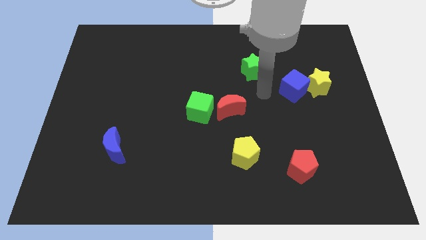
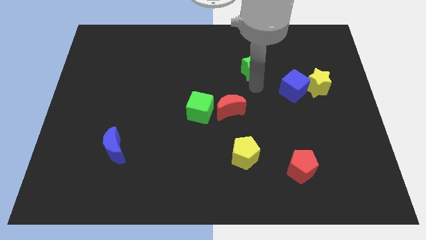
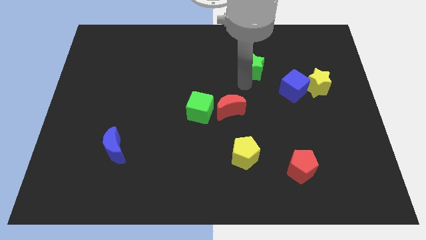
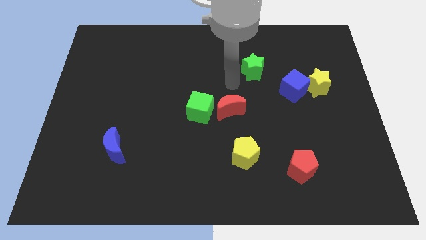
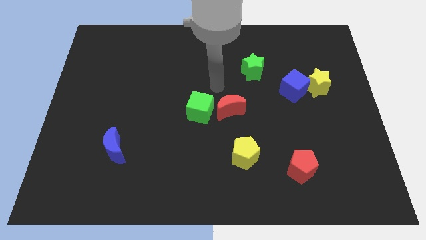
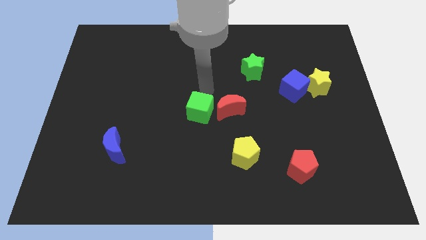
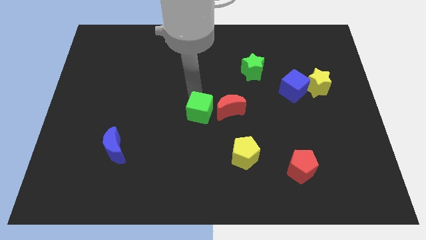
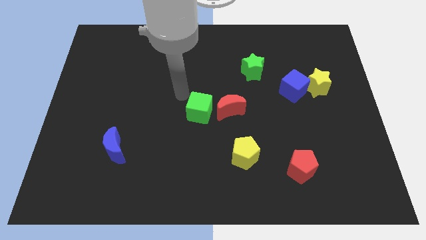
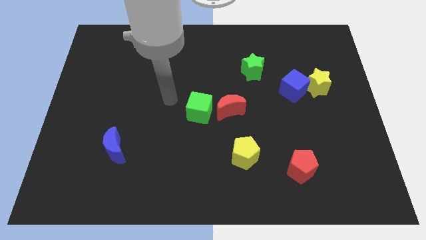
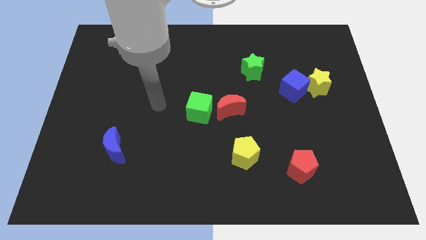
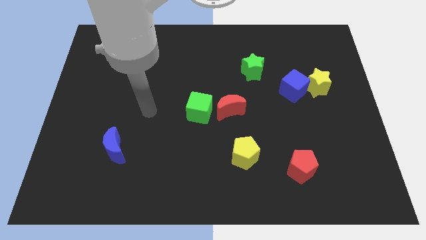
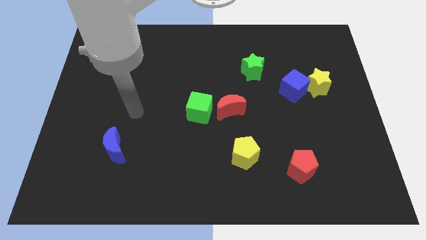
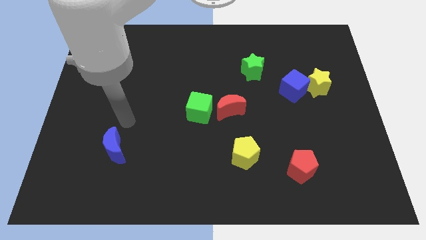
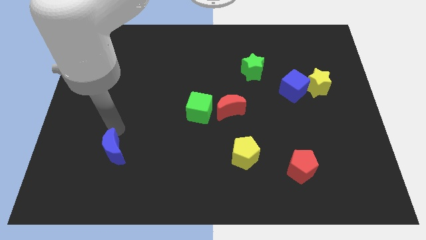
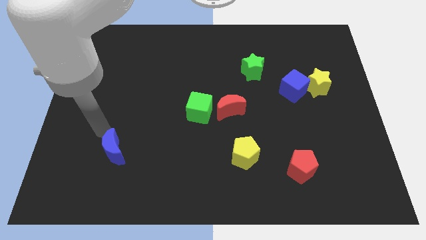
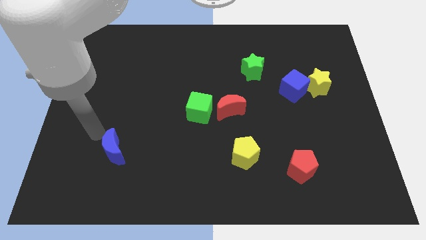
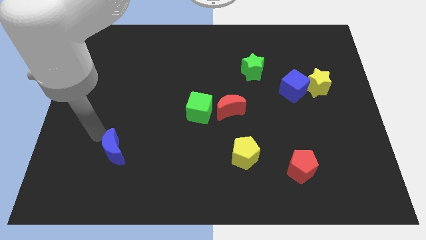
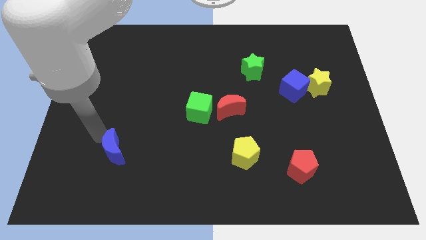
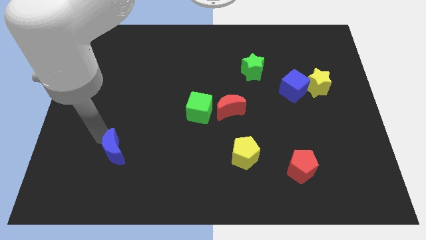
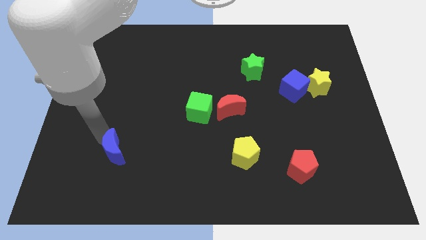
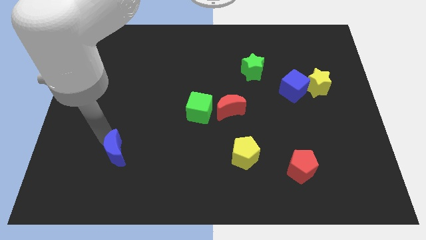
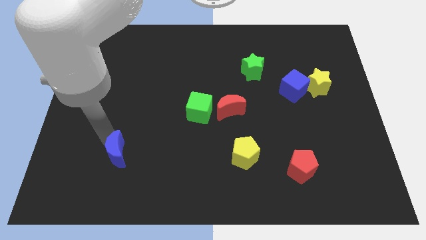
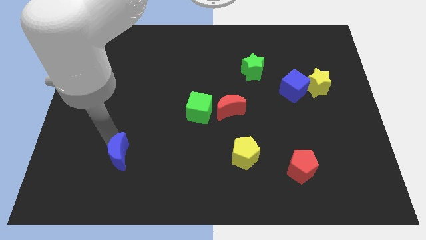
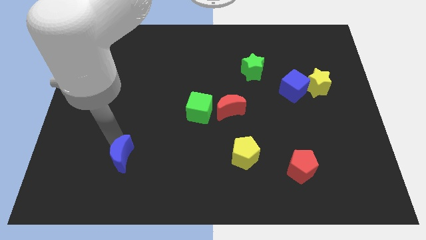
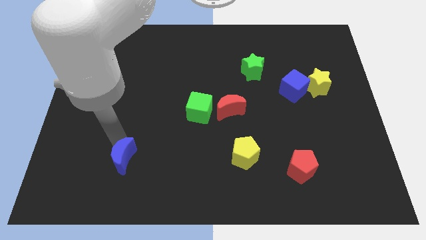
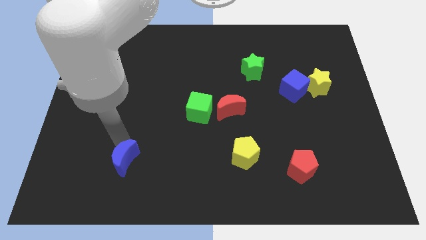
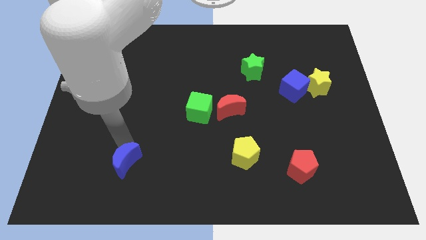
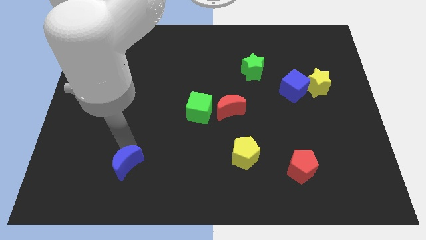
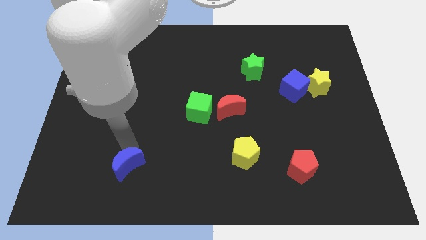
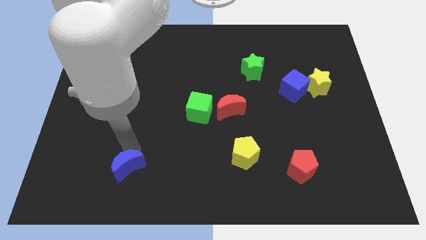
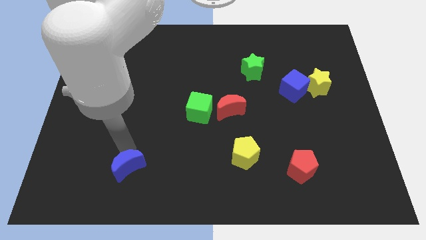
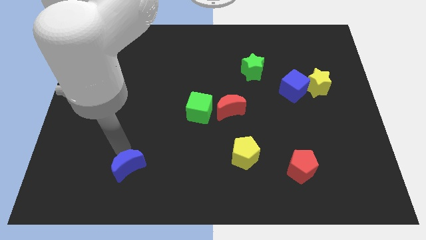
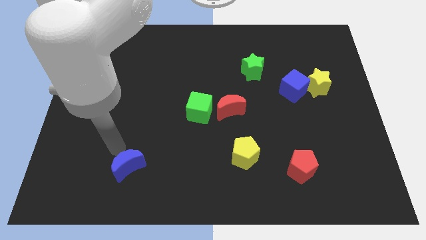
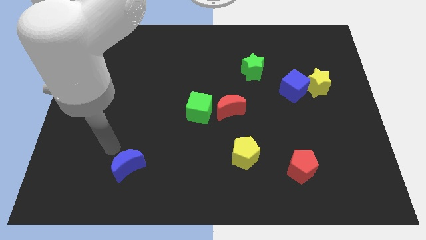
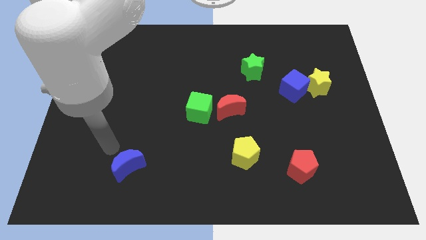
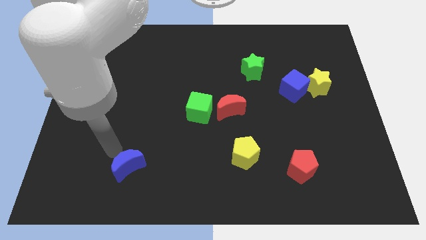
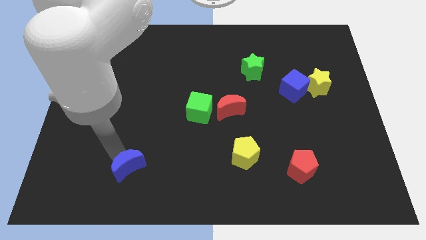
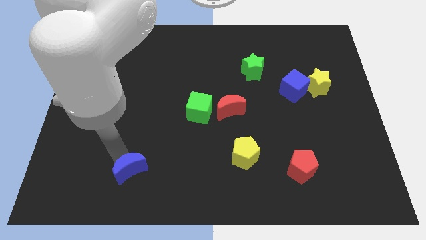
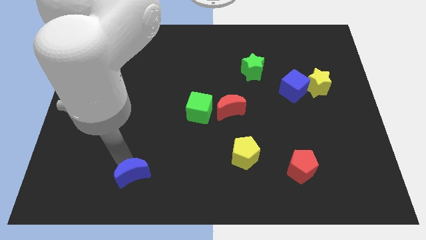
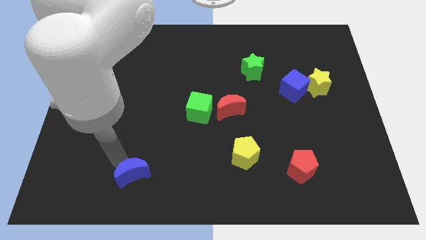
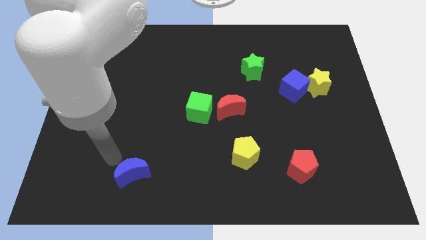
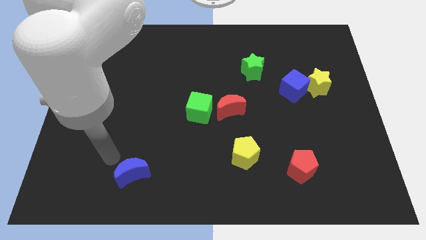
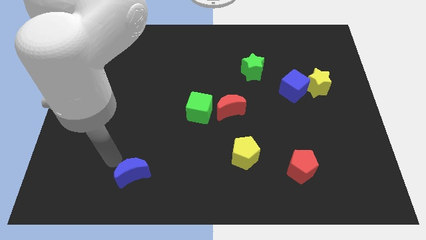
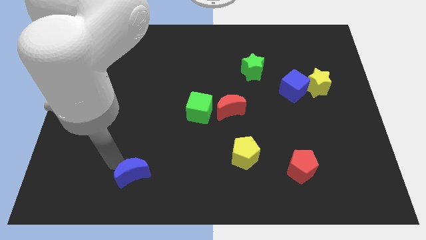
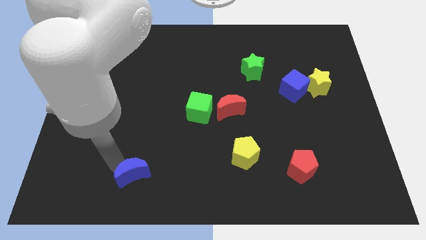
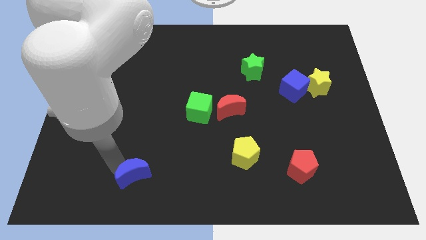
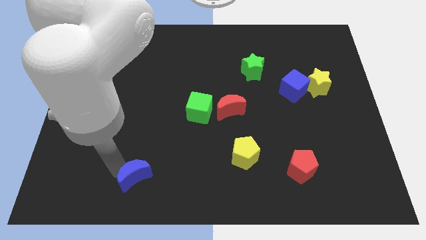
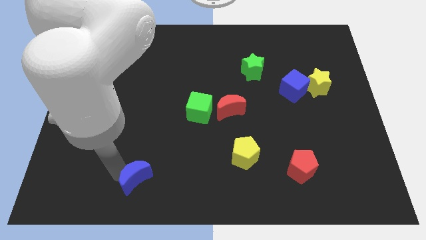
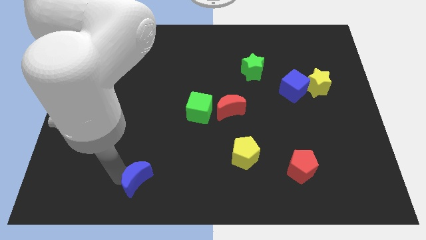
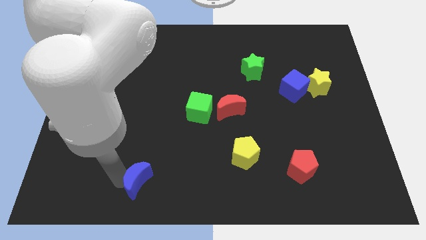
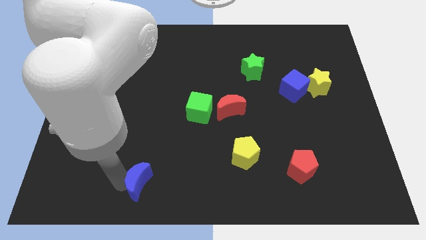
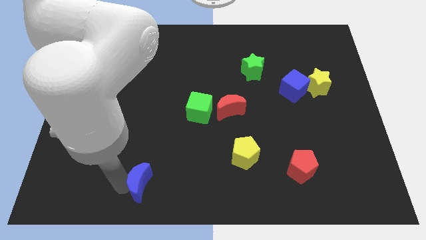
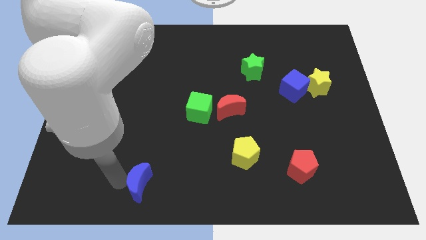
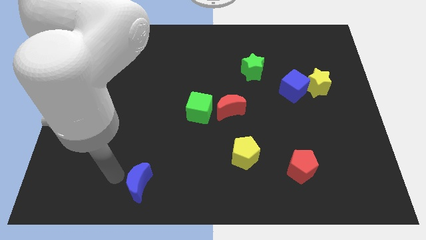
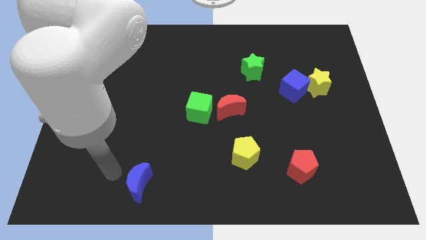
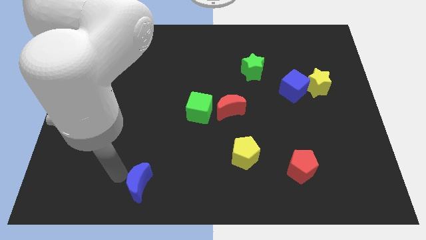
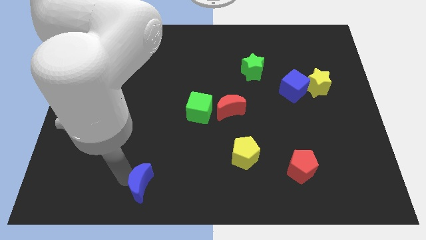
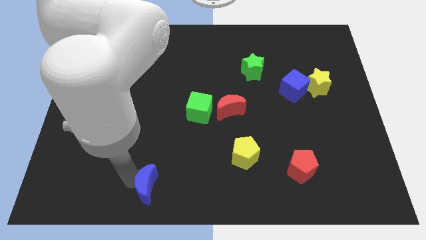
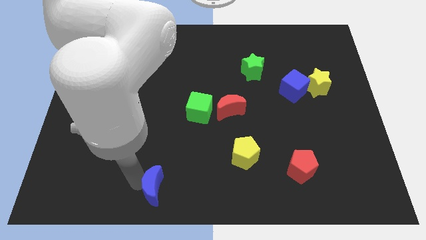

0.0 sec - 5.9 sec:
push the blue moon to the bottom side

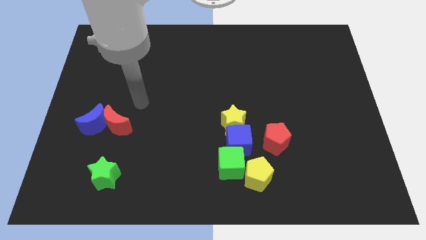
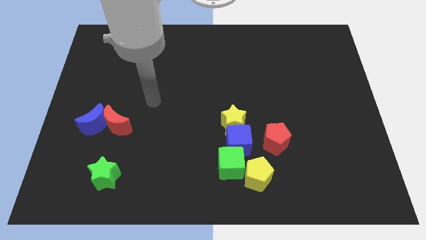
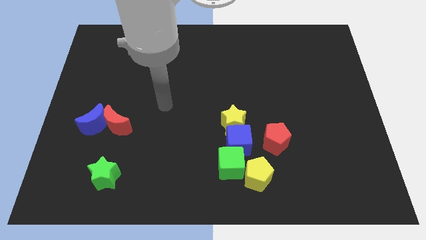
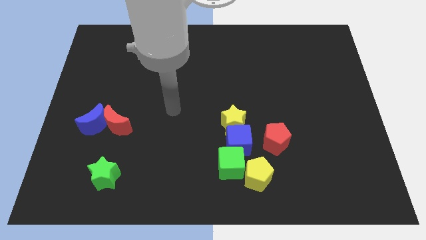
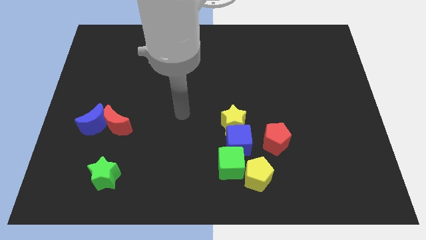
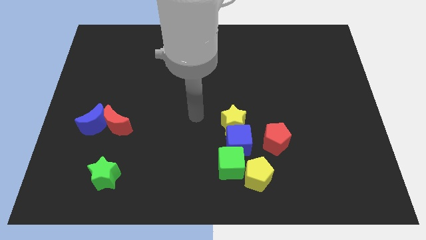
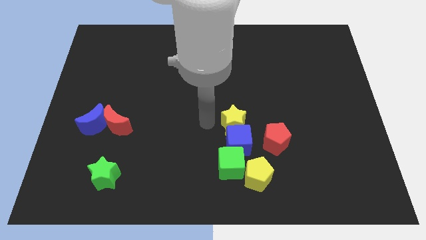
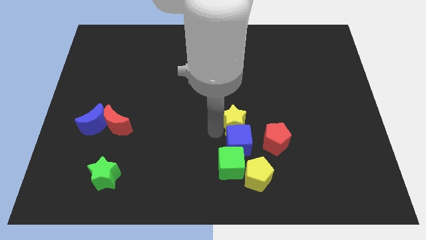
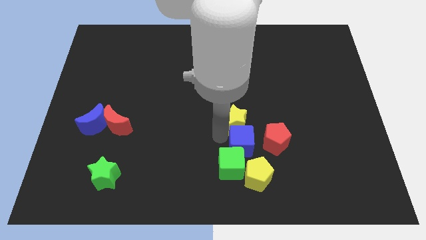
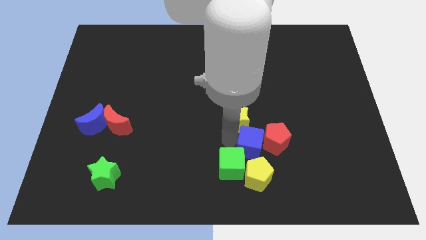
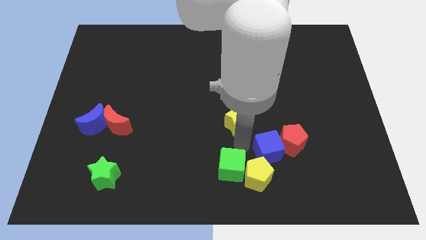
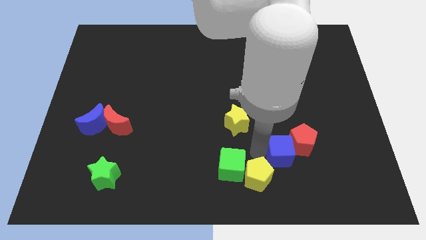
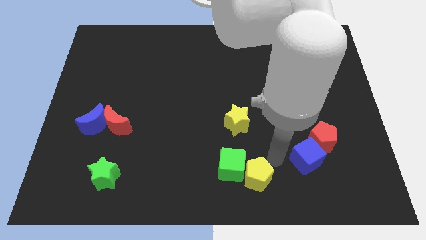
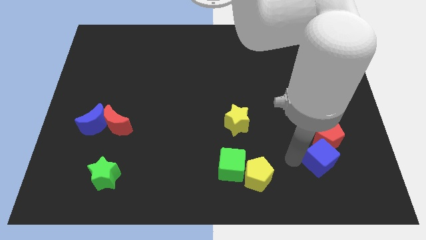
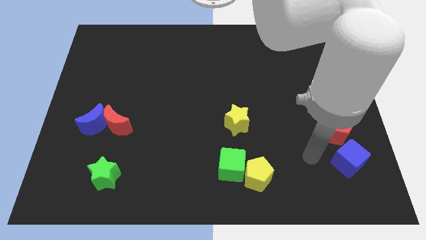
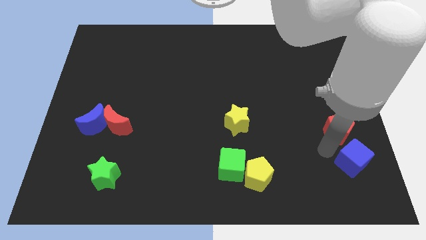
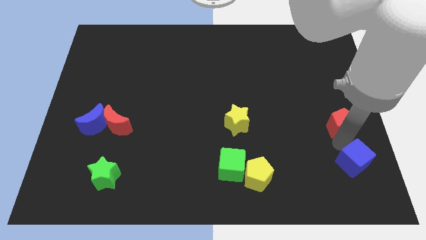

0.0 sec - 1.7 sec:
push the red pentagon to the right side
